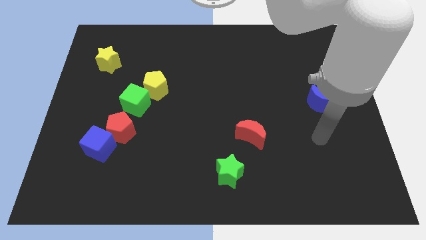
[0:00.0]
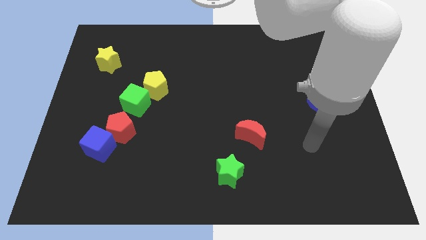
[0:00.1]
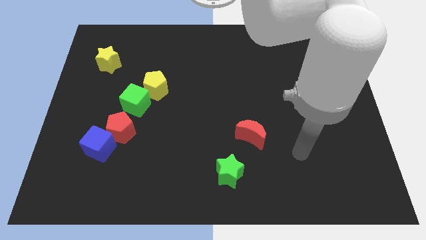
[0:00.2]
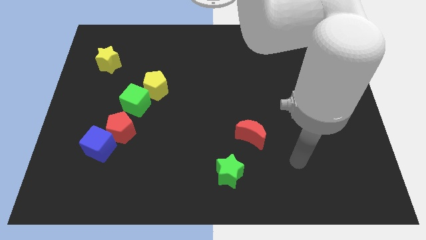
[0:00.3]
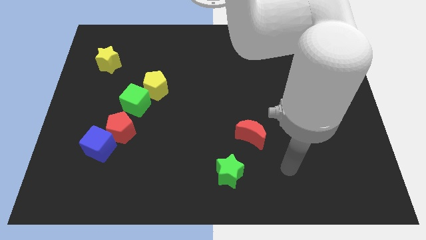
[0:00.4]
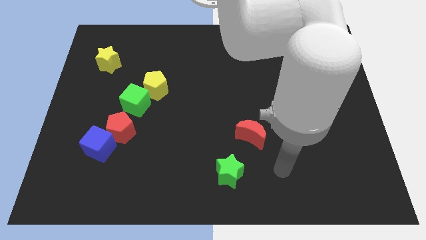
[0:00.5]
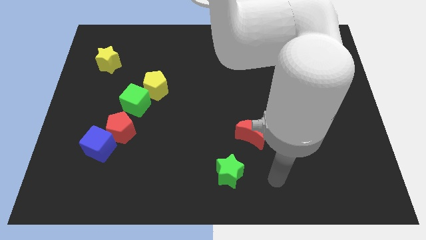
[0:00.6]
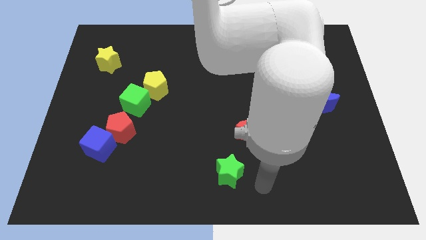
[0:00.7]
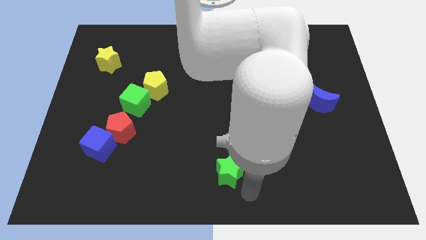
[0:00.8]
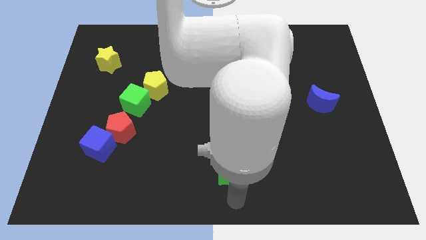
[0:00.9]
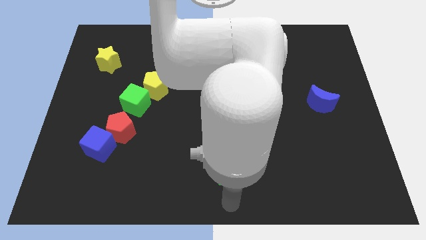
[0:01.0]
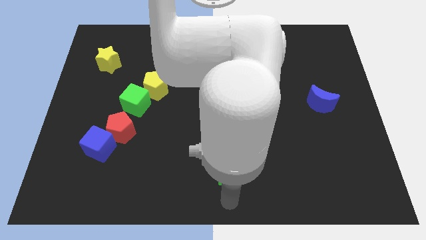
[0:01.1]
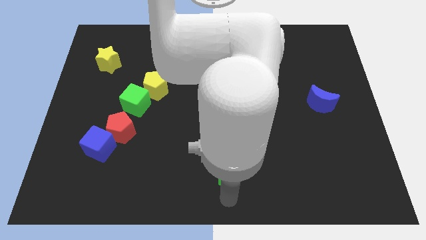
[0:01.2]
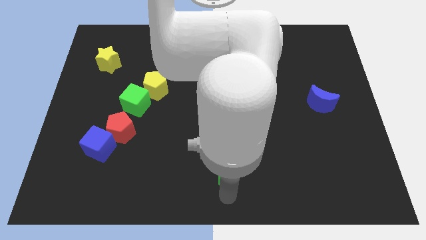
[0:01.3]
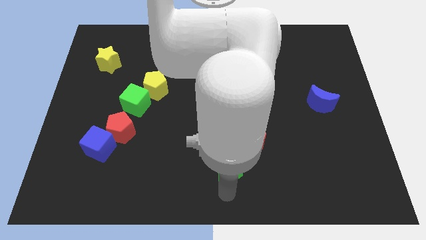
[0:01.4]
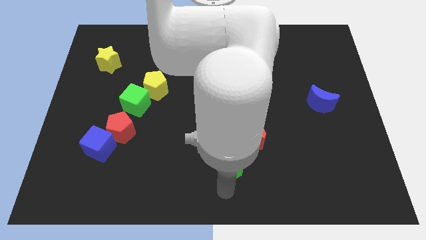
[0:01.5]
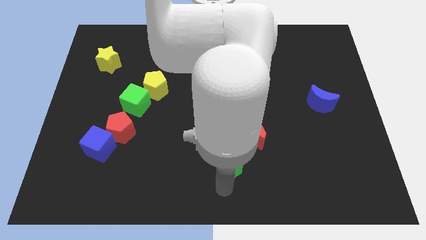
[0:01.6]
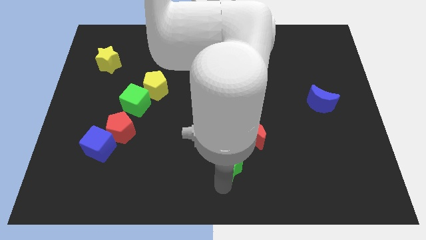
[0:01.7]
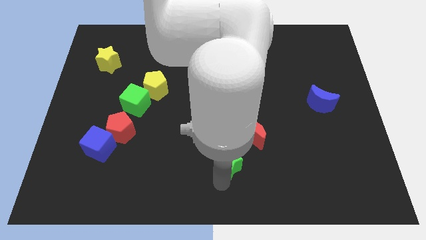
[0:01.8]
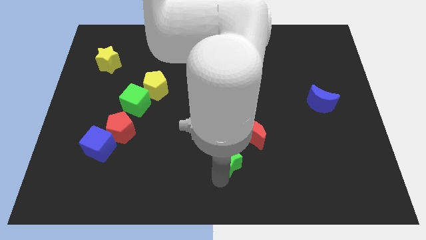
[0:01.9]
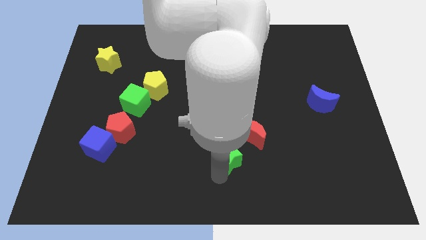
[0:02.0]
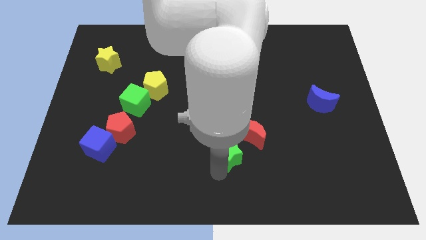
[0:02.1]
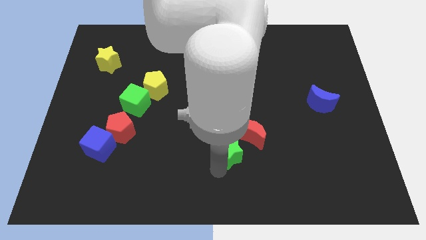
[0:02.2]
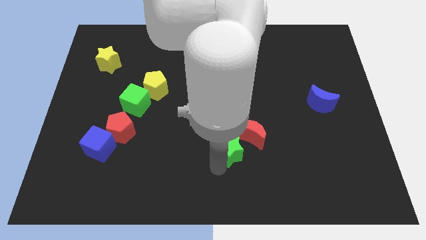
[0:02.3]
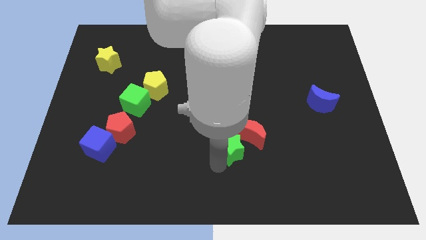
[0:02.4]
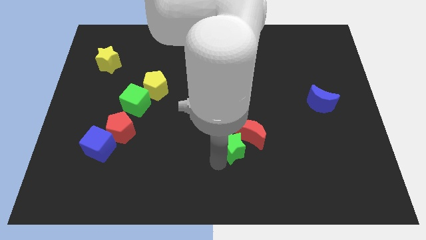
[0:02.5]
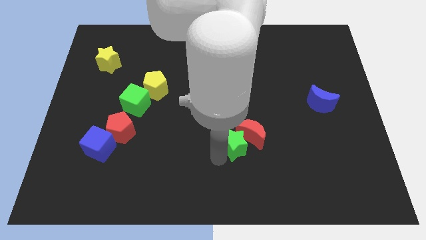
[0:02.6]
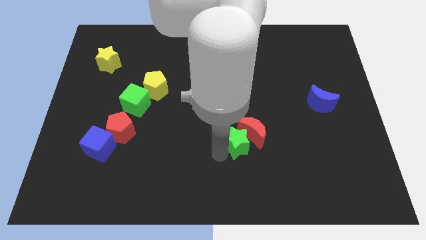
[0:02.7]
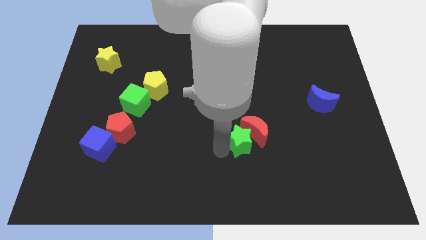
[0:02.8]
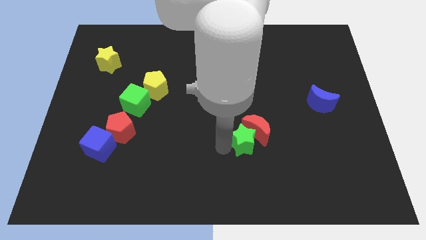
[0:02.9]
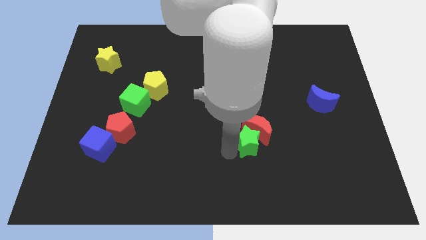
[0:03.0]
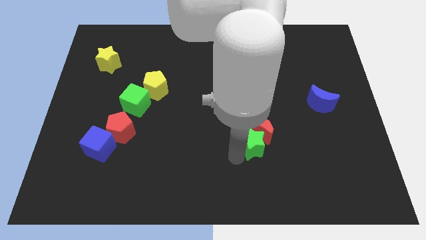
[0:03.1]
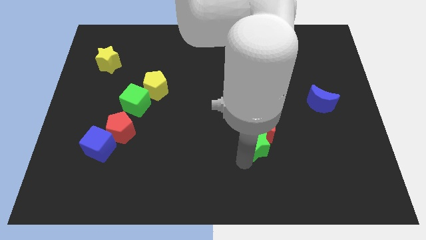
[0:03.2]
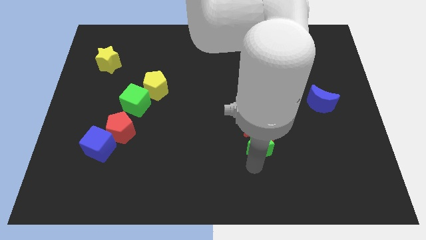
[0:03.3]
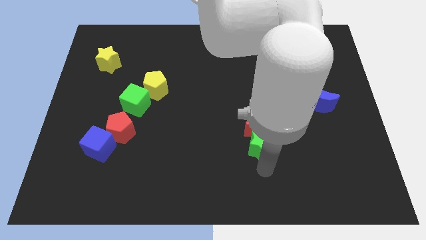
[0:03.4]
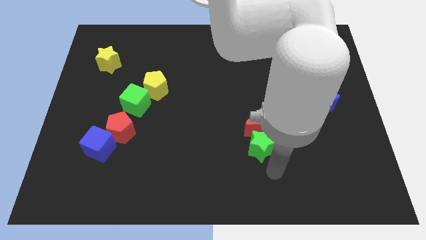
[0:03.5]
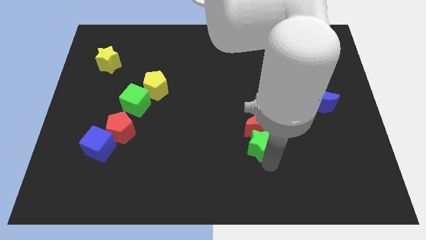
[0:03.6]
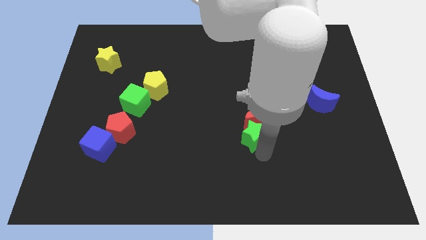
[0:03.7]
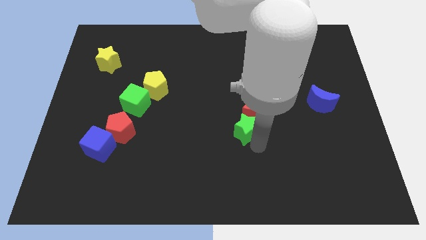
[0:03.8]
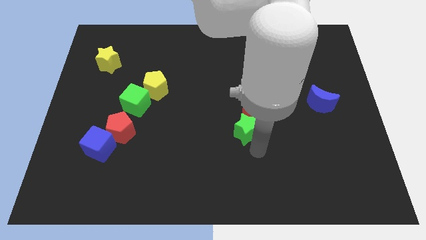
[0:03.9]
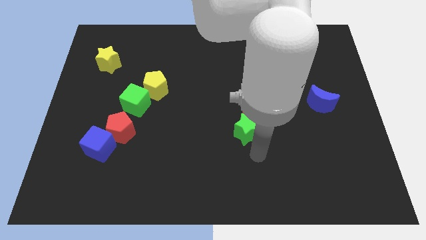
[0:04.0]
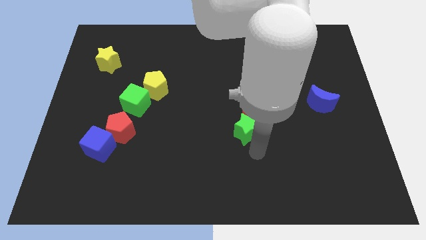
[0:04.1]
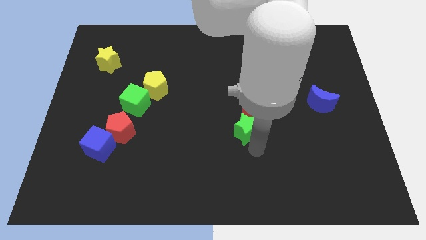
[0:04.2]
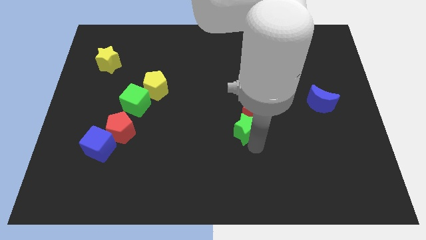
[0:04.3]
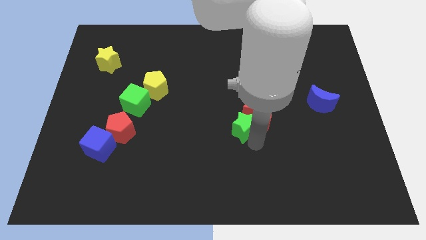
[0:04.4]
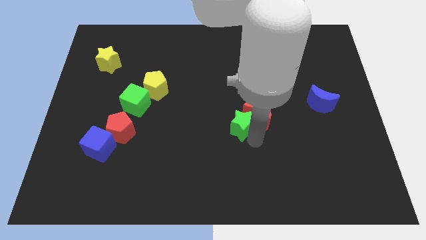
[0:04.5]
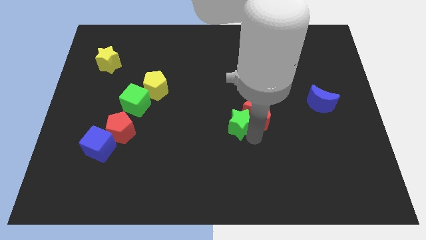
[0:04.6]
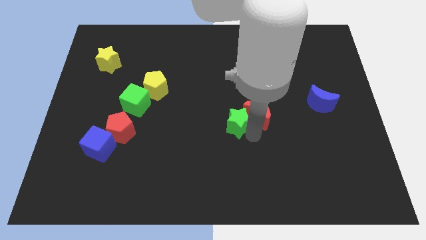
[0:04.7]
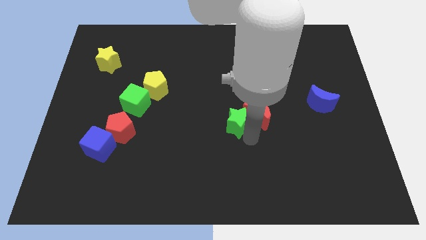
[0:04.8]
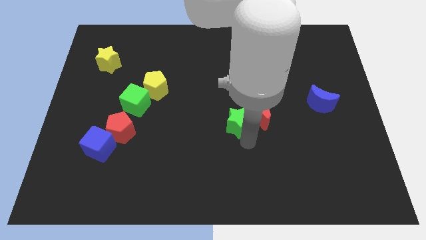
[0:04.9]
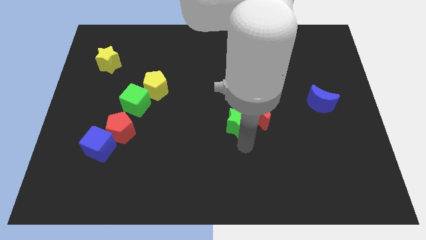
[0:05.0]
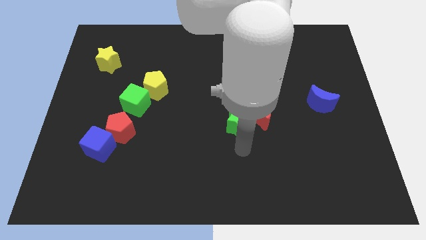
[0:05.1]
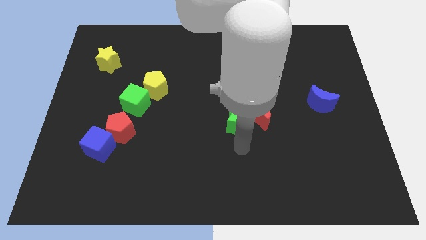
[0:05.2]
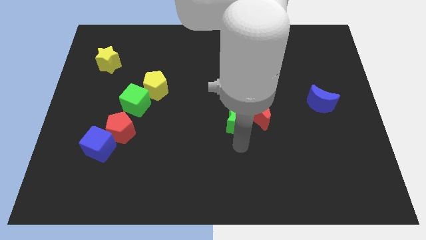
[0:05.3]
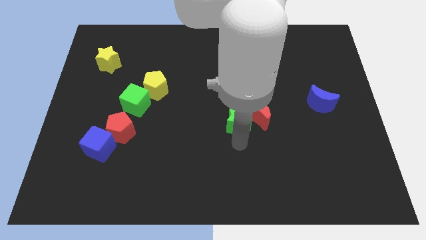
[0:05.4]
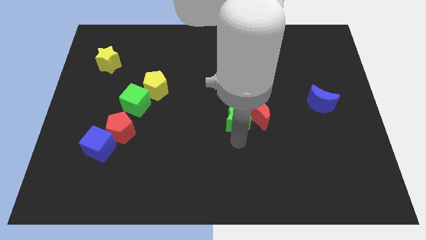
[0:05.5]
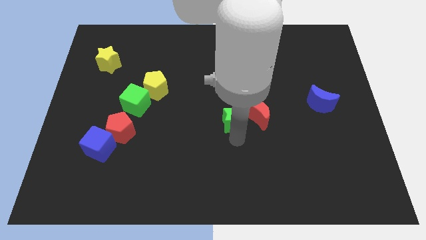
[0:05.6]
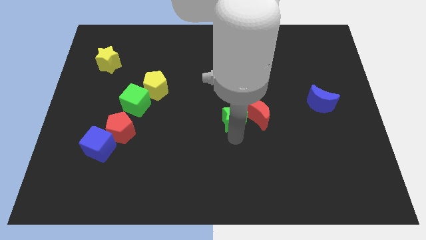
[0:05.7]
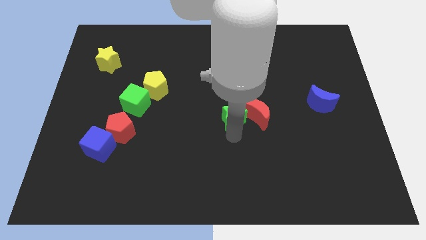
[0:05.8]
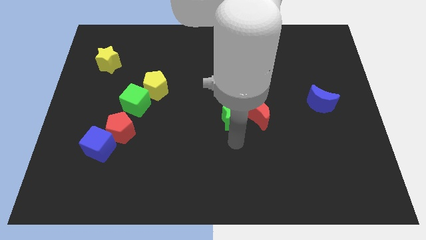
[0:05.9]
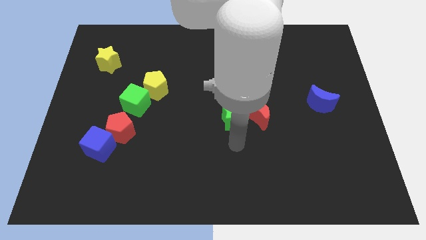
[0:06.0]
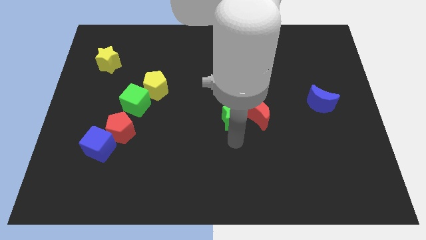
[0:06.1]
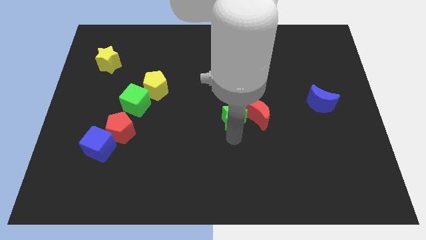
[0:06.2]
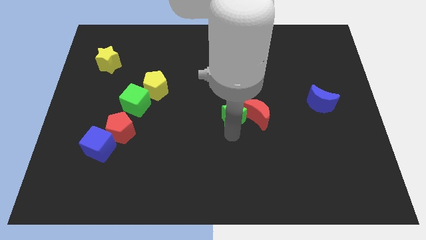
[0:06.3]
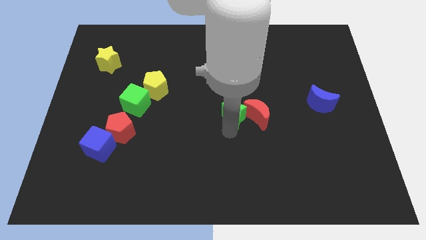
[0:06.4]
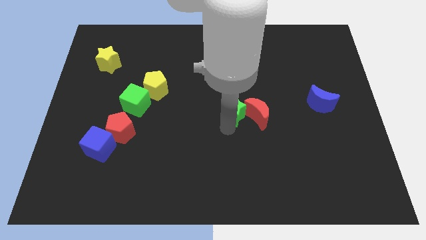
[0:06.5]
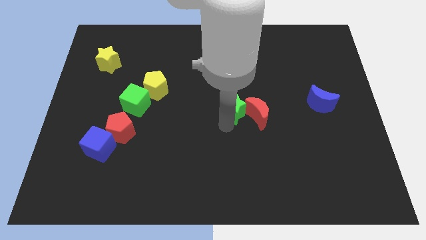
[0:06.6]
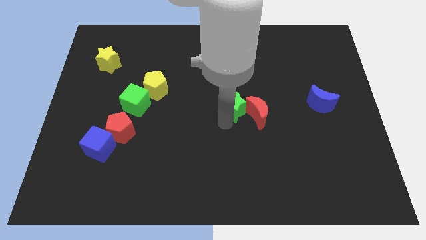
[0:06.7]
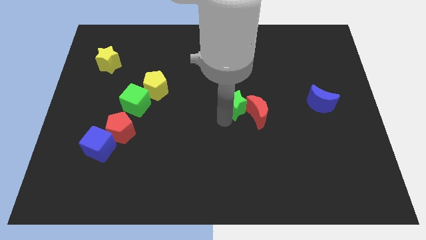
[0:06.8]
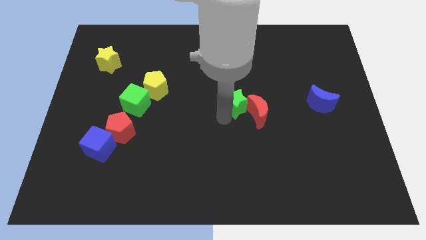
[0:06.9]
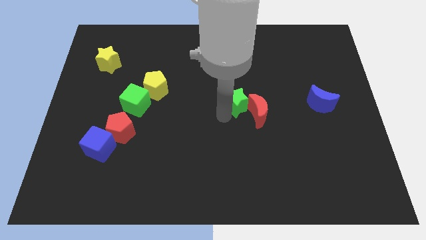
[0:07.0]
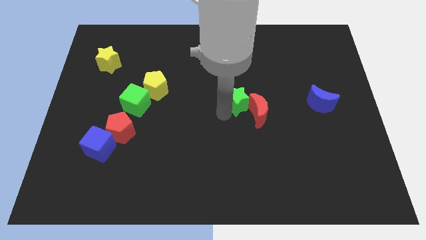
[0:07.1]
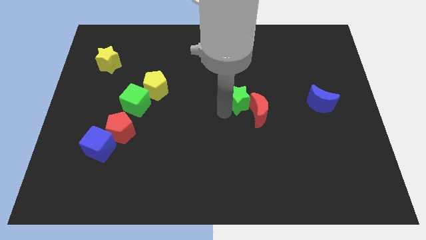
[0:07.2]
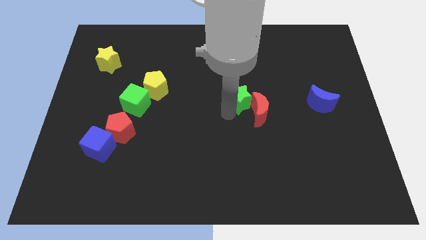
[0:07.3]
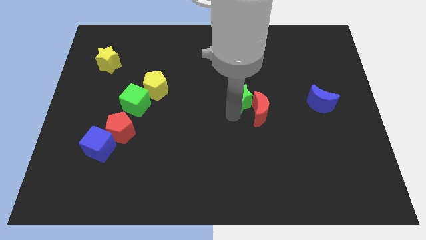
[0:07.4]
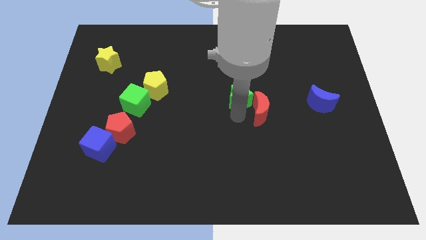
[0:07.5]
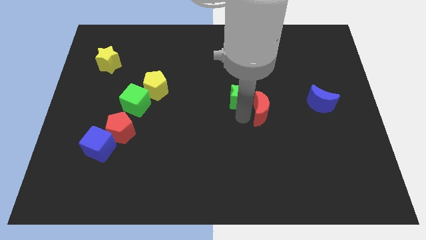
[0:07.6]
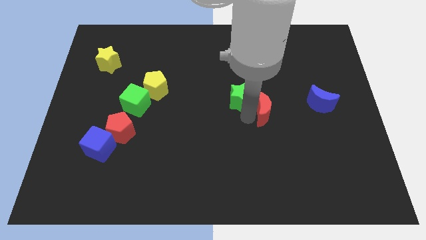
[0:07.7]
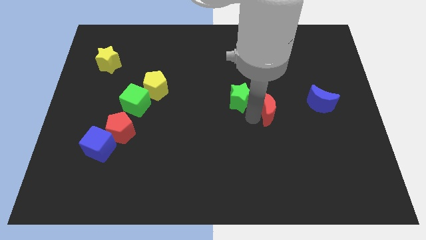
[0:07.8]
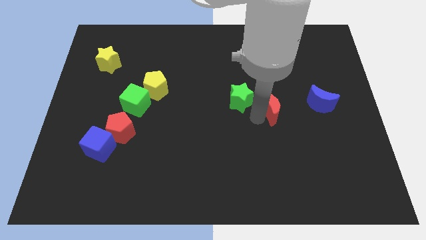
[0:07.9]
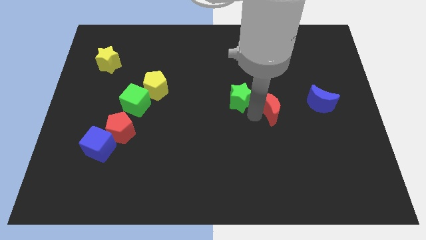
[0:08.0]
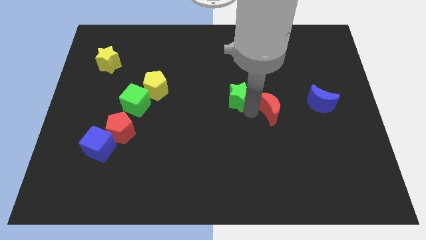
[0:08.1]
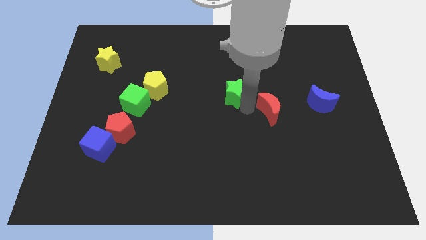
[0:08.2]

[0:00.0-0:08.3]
move the green star upwards

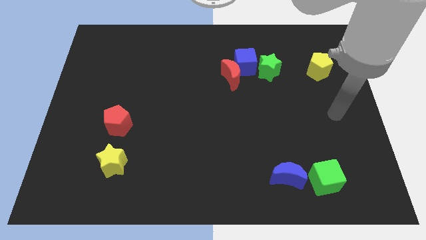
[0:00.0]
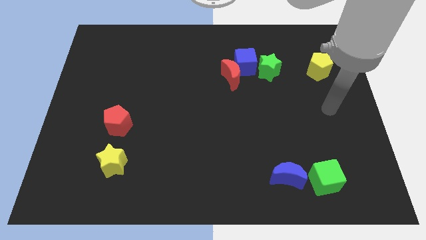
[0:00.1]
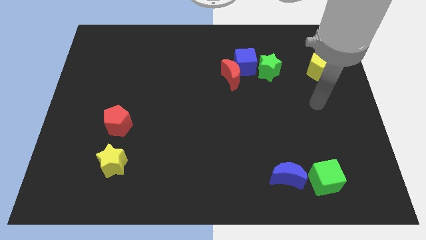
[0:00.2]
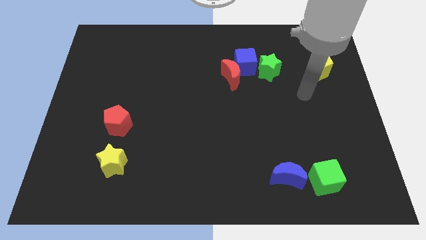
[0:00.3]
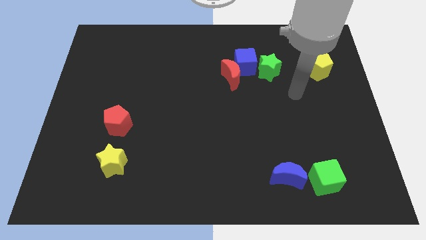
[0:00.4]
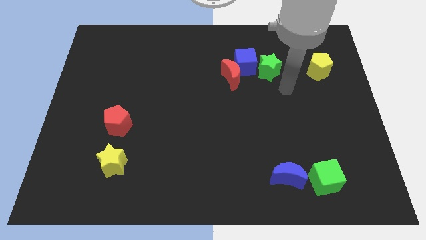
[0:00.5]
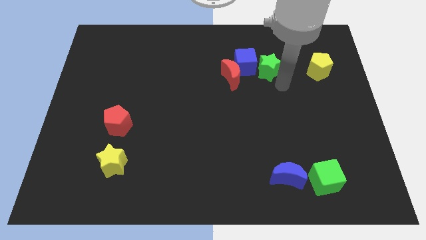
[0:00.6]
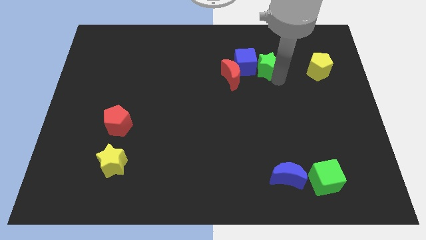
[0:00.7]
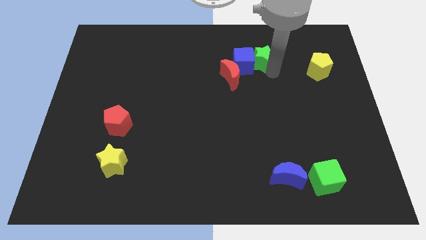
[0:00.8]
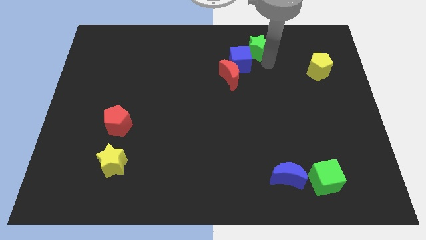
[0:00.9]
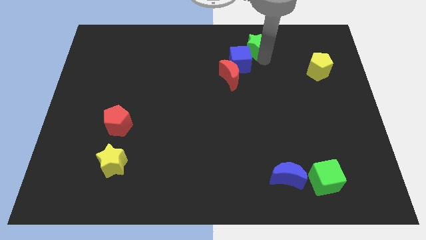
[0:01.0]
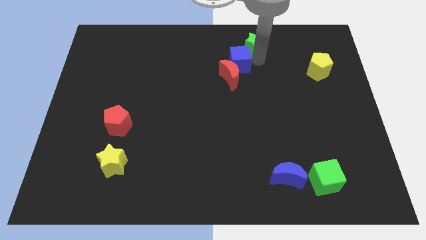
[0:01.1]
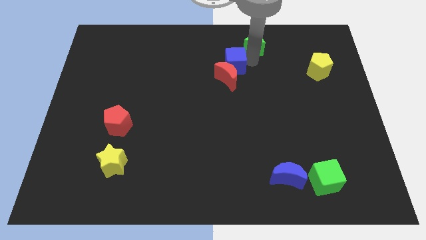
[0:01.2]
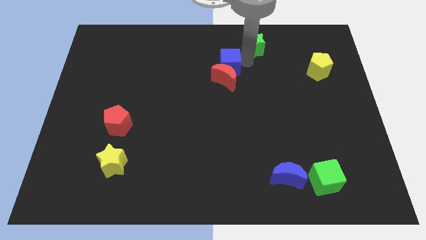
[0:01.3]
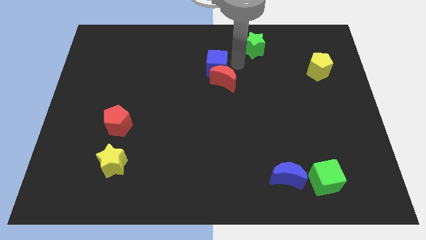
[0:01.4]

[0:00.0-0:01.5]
push the blue cube a little bit to the left
